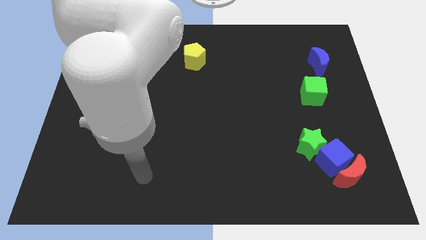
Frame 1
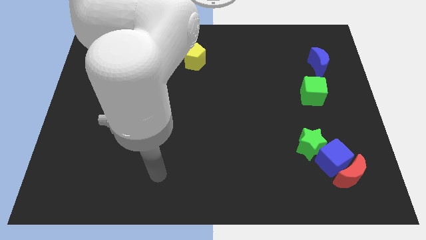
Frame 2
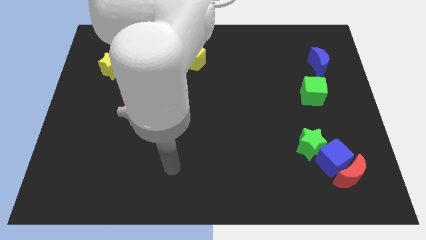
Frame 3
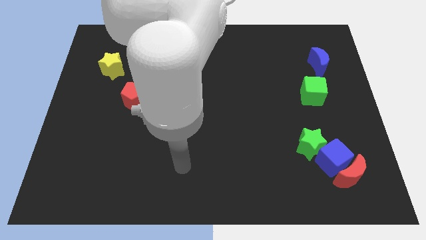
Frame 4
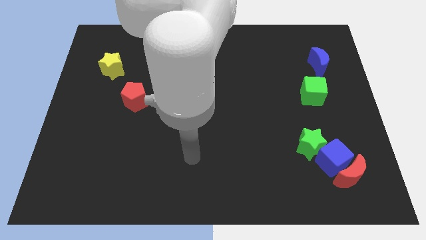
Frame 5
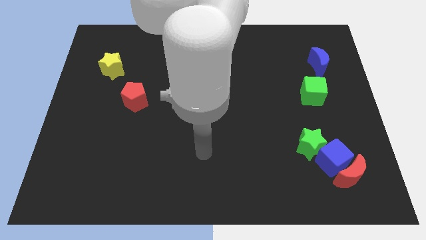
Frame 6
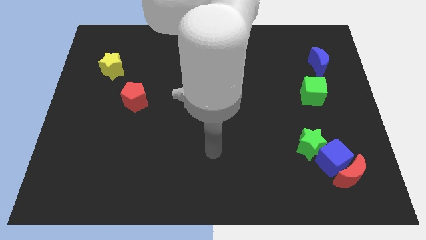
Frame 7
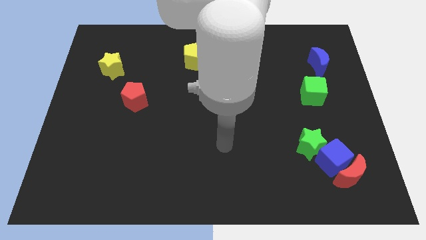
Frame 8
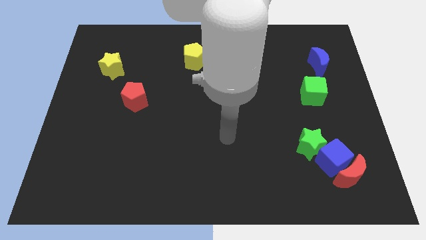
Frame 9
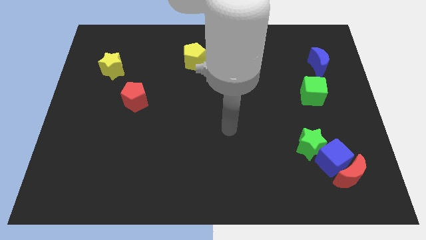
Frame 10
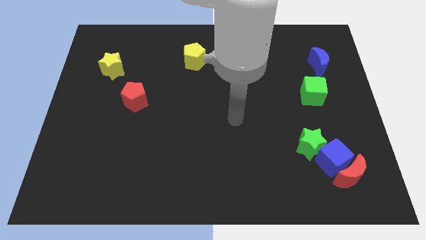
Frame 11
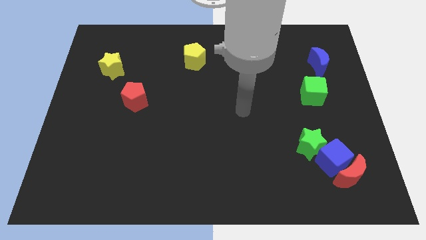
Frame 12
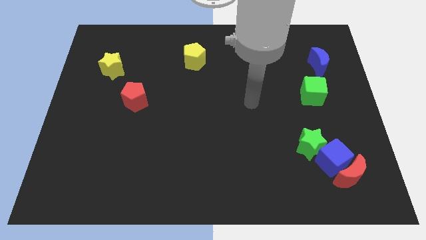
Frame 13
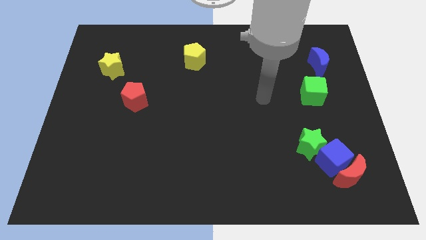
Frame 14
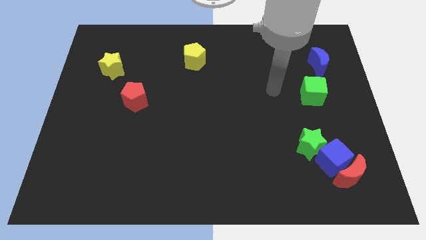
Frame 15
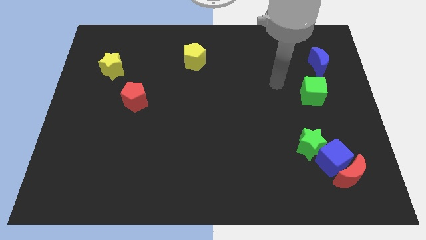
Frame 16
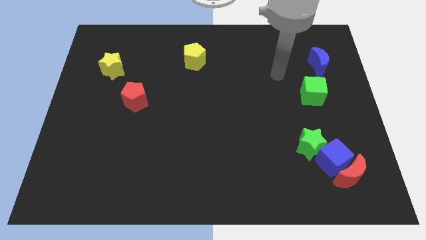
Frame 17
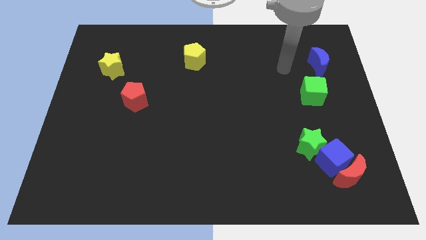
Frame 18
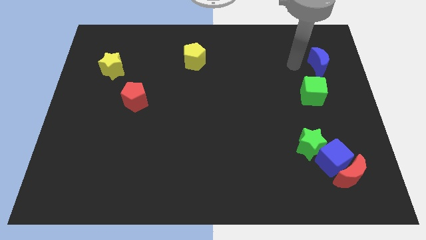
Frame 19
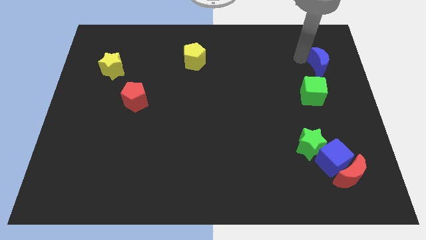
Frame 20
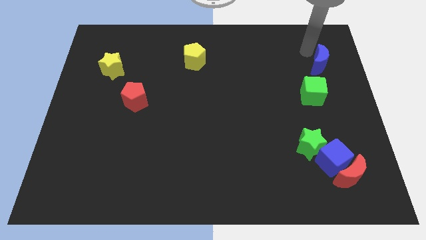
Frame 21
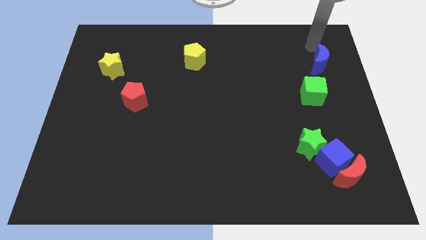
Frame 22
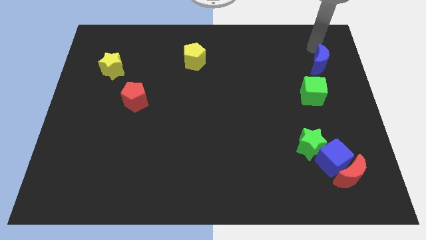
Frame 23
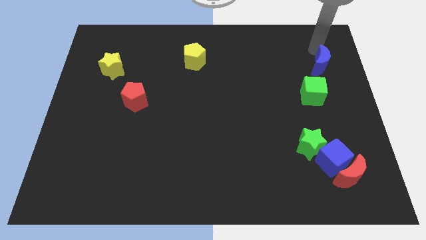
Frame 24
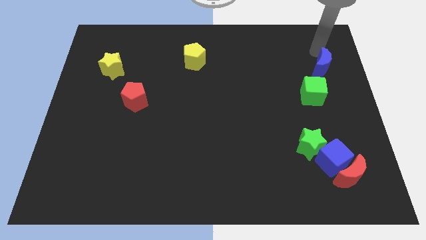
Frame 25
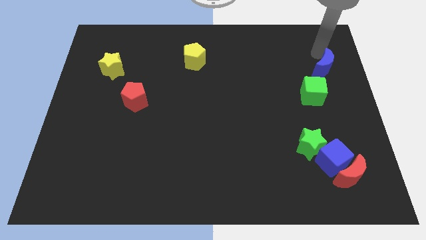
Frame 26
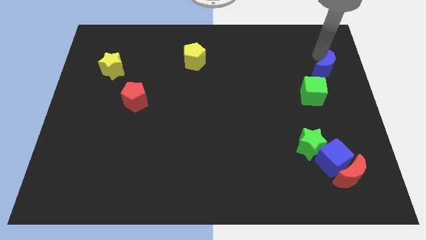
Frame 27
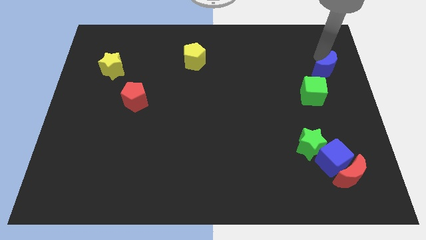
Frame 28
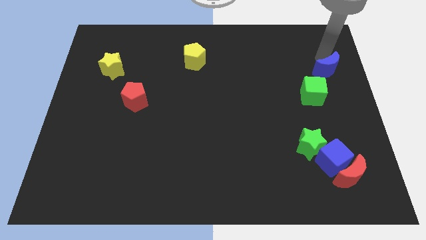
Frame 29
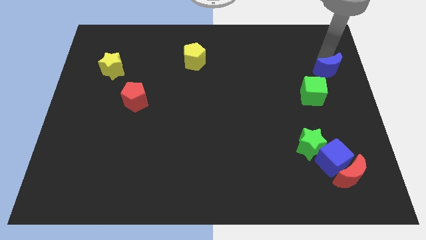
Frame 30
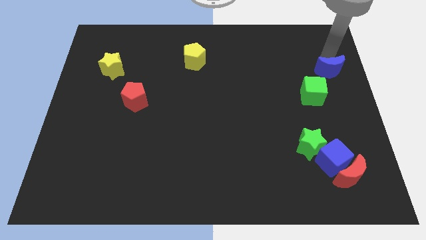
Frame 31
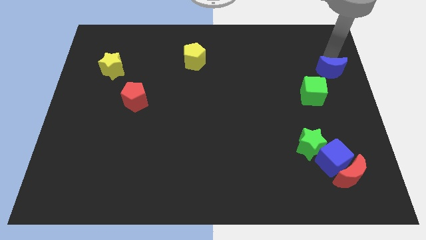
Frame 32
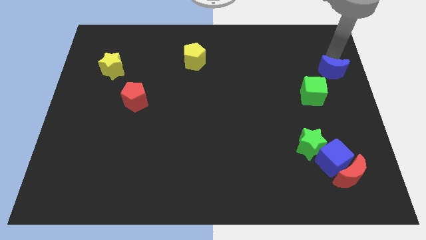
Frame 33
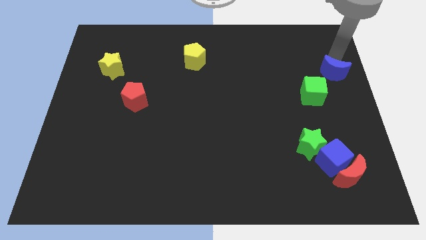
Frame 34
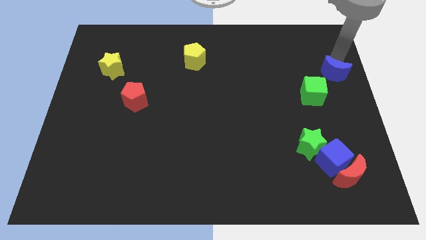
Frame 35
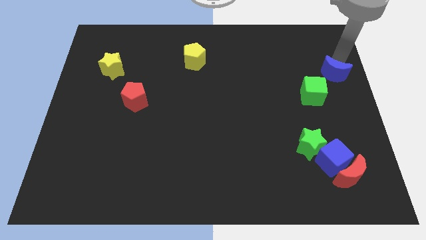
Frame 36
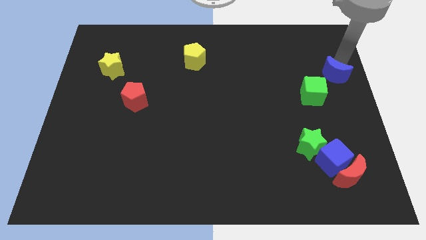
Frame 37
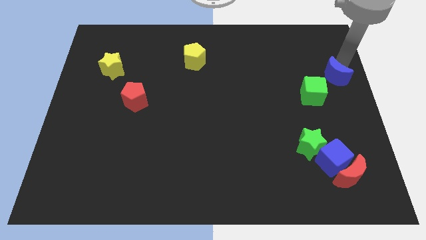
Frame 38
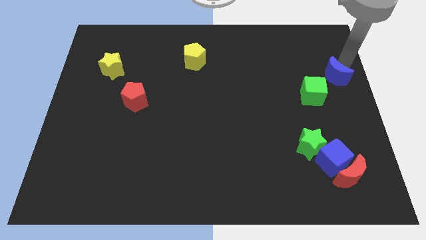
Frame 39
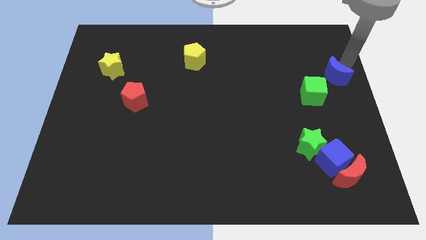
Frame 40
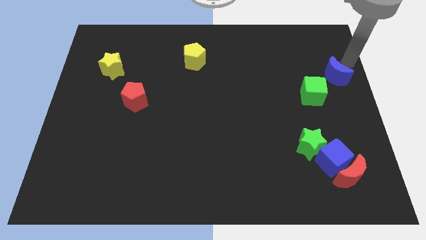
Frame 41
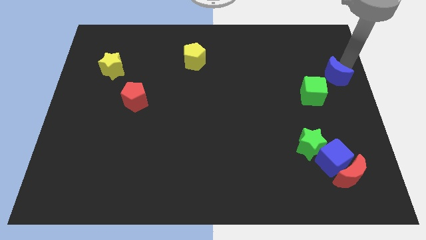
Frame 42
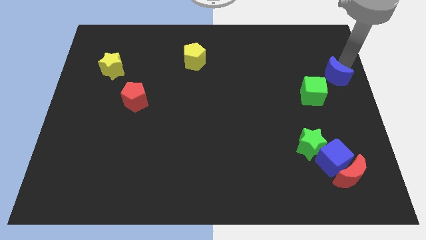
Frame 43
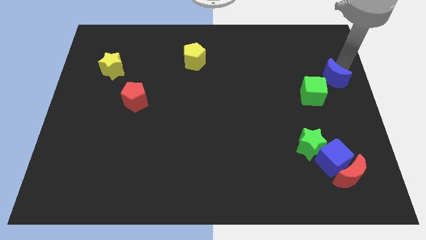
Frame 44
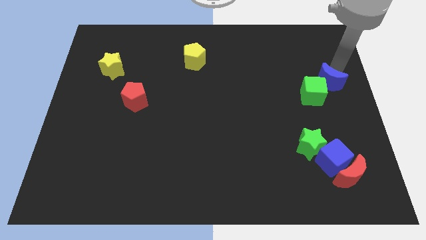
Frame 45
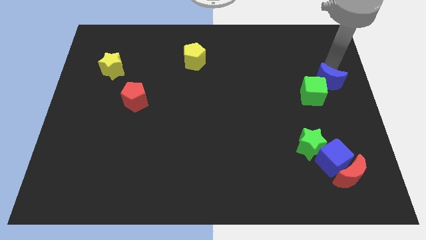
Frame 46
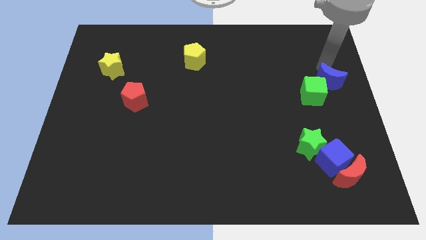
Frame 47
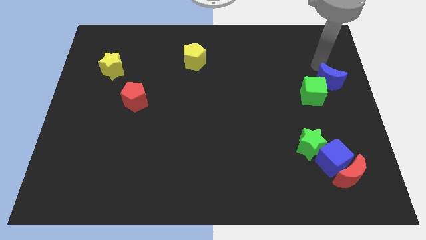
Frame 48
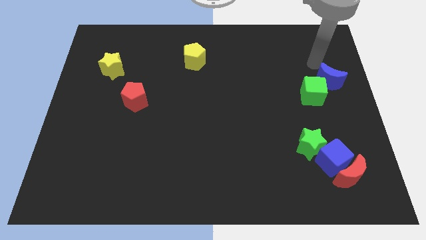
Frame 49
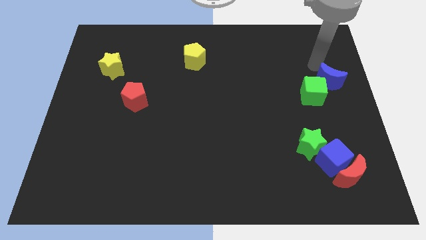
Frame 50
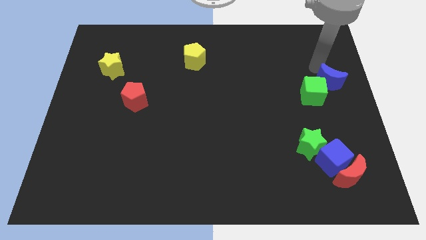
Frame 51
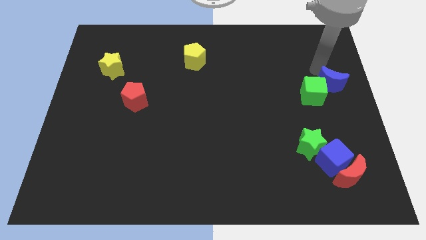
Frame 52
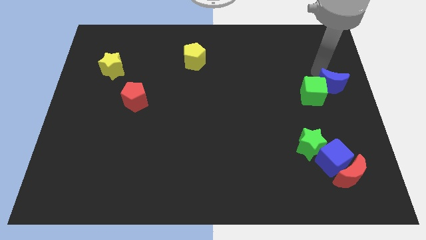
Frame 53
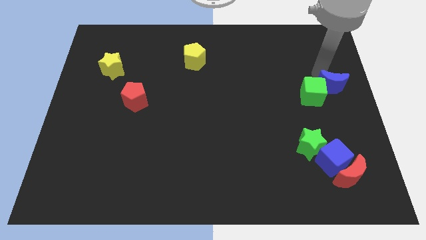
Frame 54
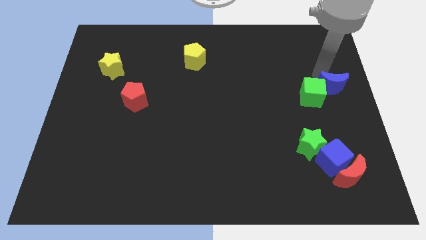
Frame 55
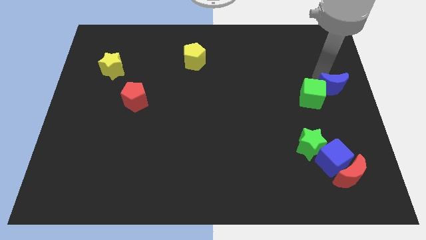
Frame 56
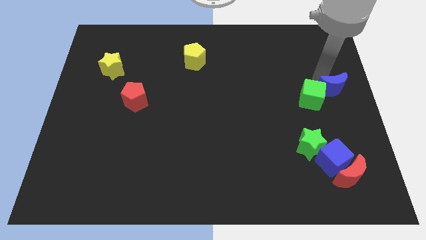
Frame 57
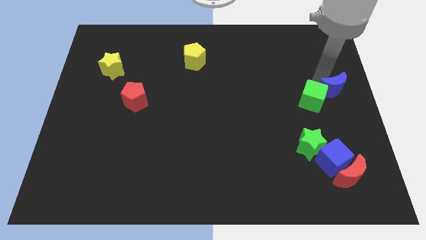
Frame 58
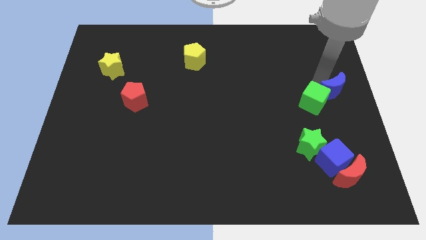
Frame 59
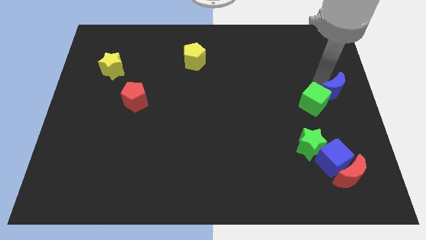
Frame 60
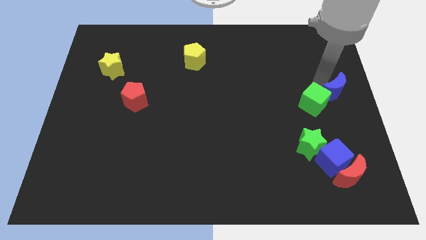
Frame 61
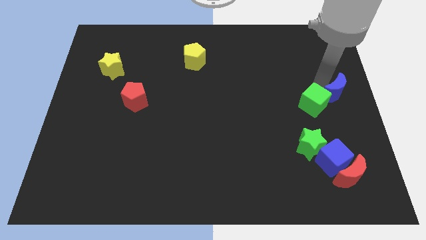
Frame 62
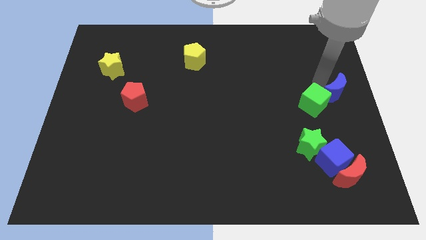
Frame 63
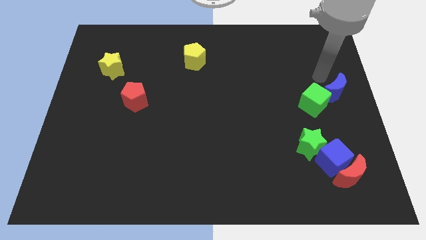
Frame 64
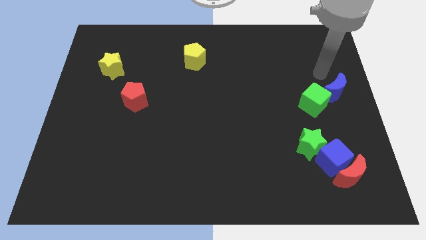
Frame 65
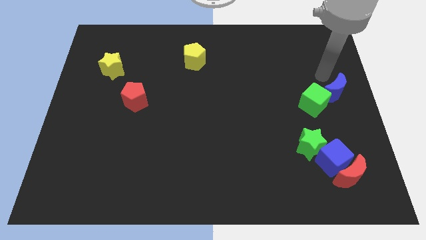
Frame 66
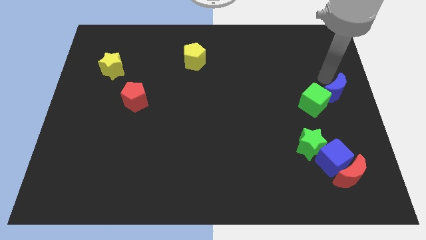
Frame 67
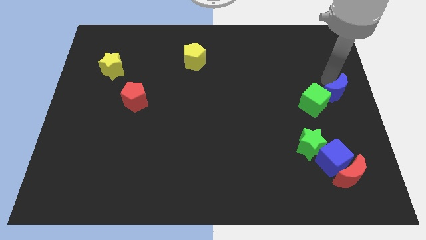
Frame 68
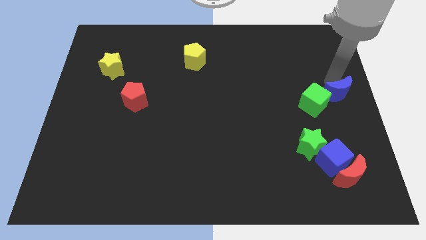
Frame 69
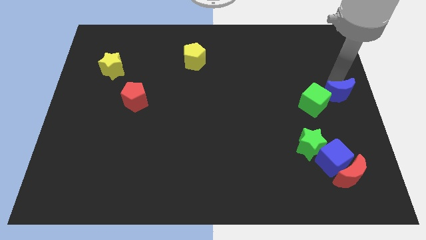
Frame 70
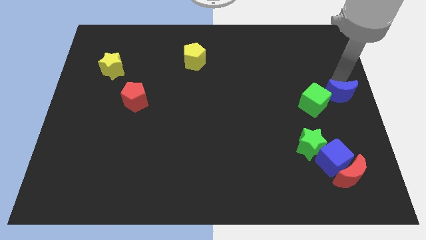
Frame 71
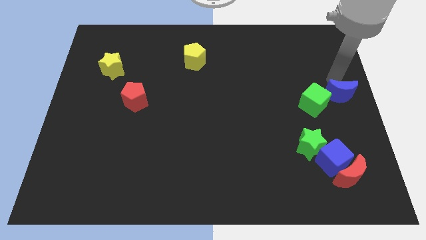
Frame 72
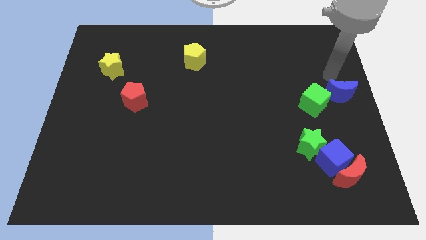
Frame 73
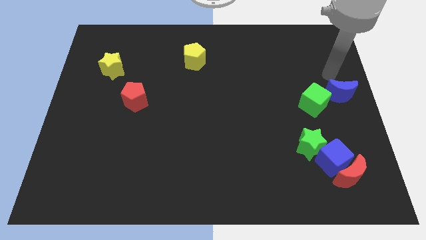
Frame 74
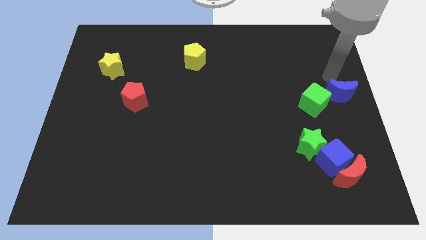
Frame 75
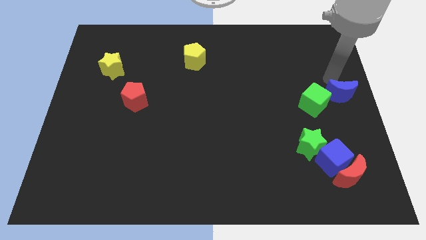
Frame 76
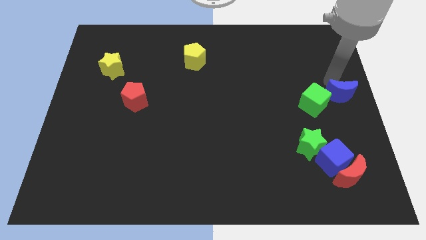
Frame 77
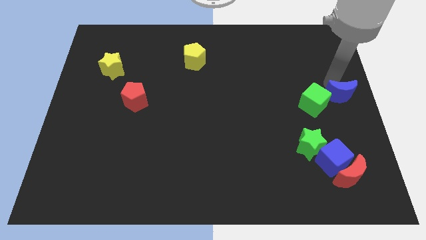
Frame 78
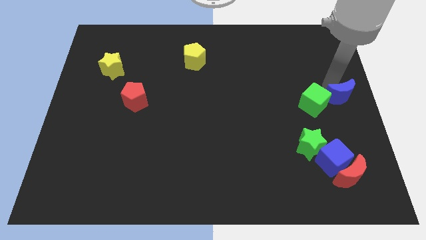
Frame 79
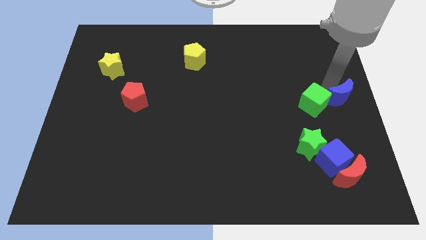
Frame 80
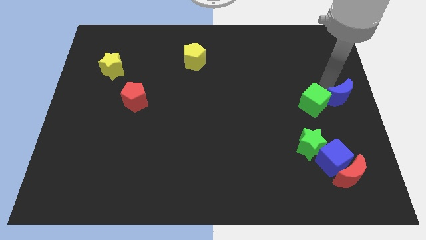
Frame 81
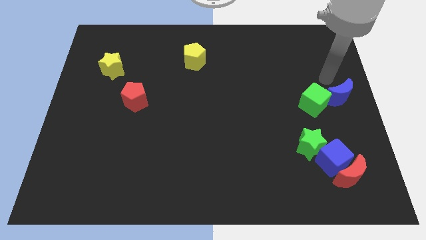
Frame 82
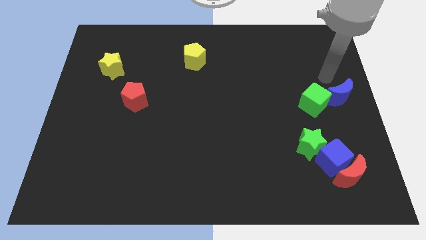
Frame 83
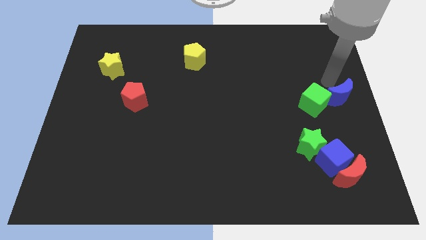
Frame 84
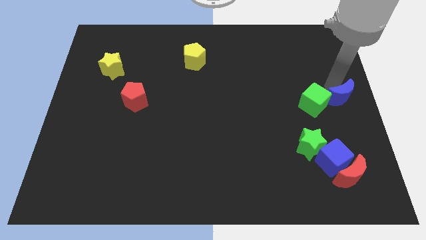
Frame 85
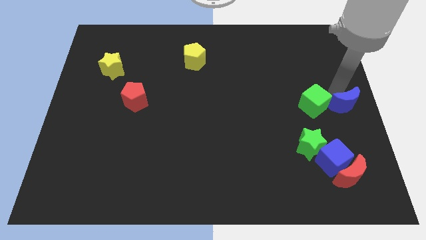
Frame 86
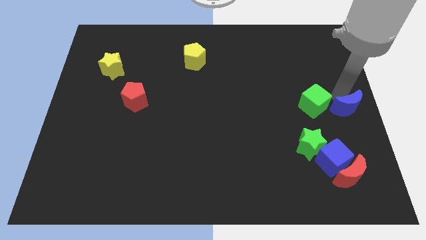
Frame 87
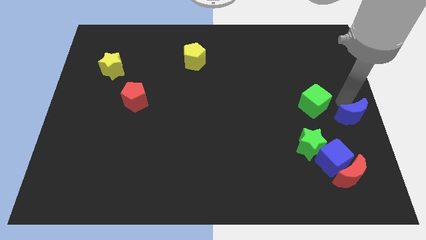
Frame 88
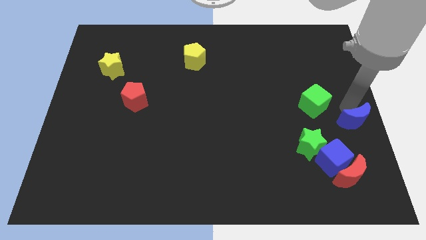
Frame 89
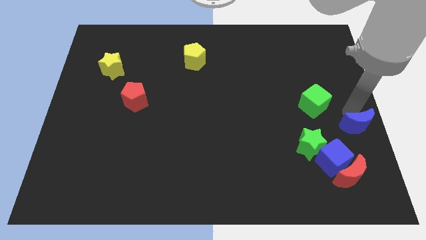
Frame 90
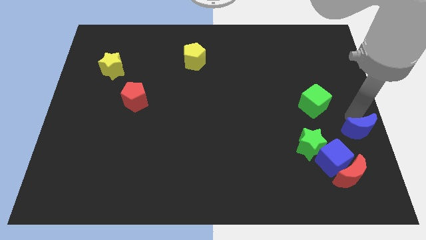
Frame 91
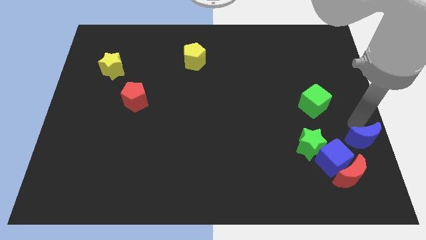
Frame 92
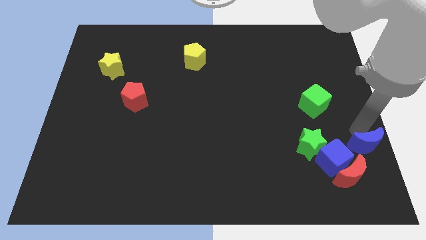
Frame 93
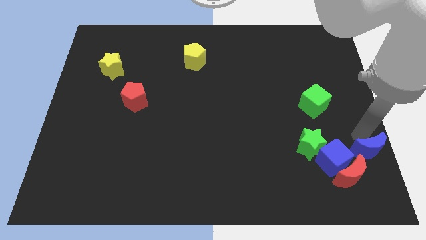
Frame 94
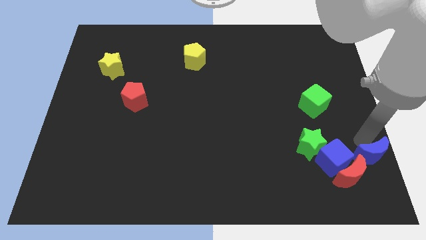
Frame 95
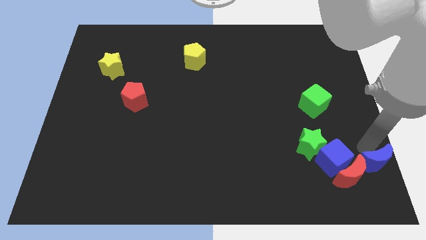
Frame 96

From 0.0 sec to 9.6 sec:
push the blue moon to the lower right corner
